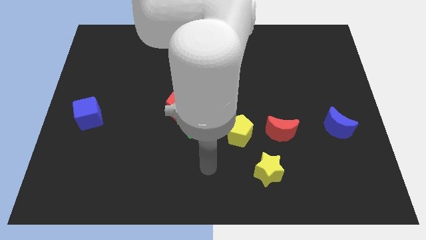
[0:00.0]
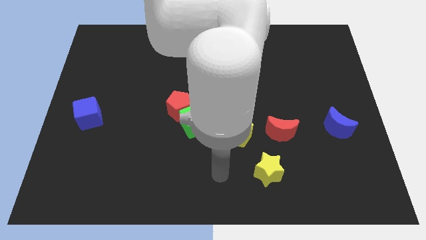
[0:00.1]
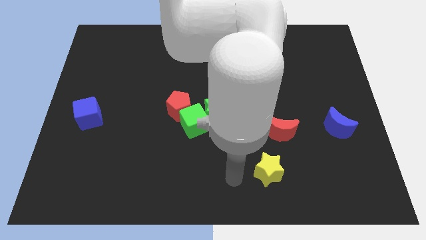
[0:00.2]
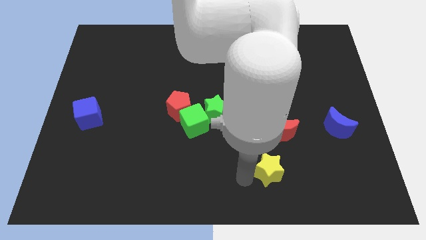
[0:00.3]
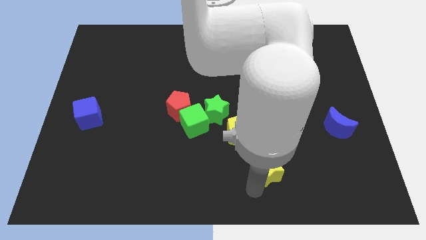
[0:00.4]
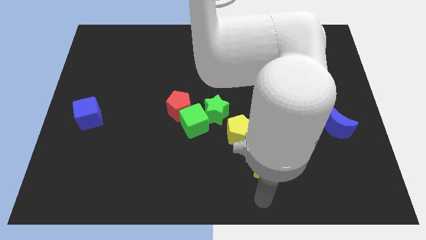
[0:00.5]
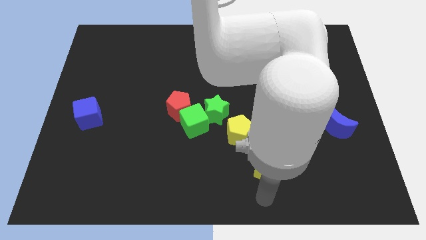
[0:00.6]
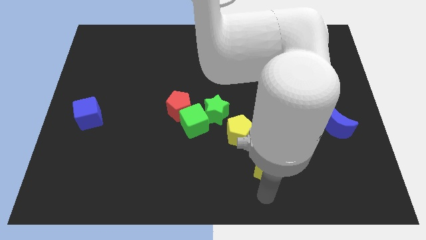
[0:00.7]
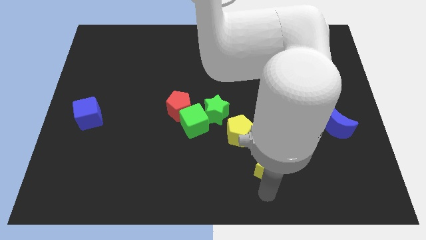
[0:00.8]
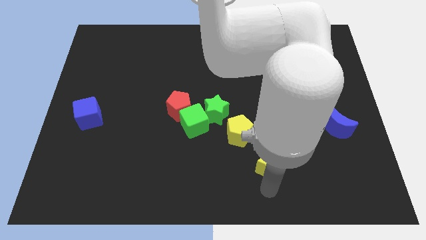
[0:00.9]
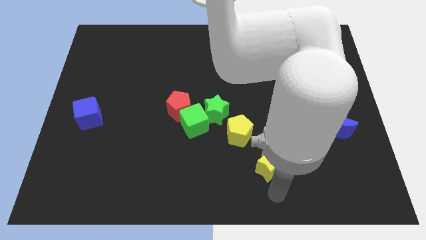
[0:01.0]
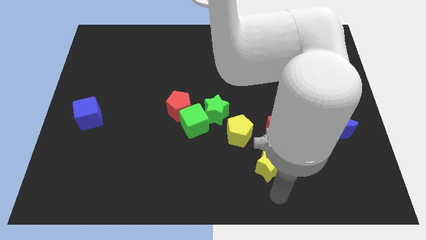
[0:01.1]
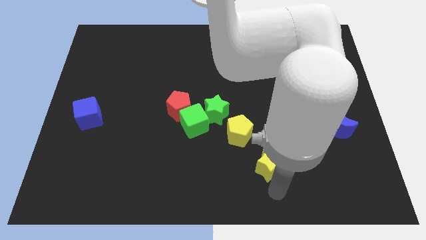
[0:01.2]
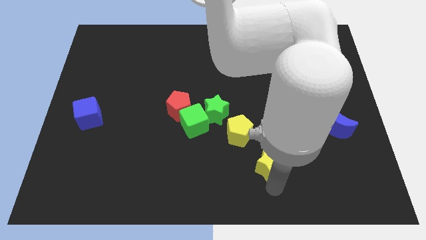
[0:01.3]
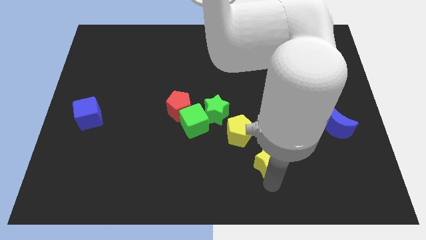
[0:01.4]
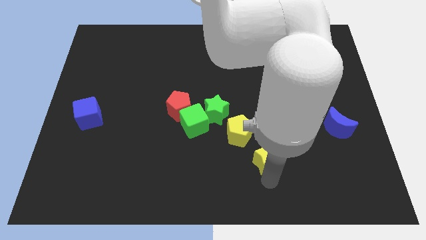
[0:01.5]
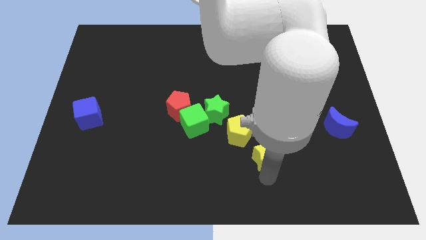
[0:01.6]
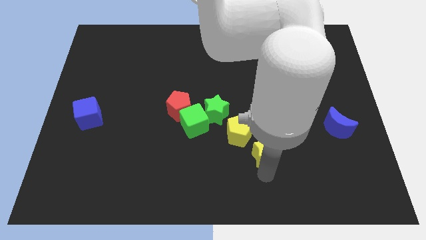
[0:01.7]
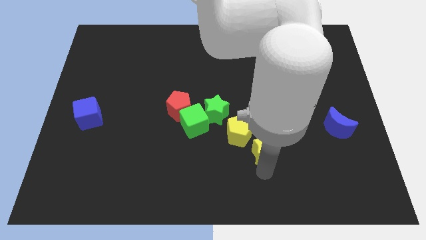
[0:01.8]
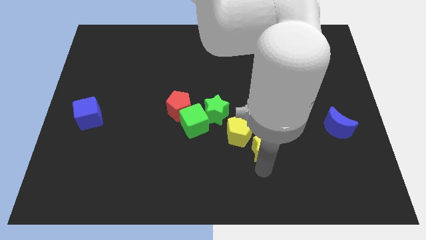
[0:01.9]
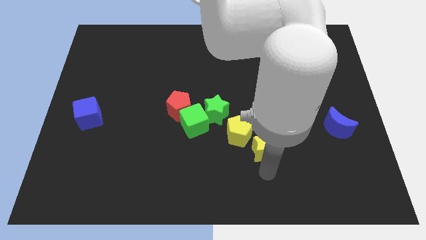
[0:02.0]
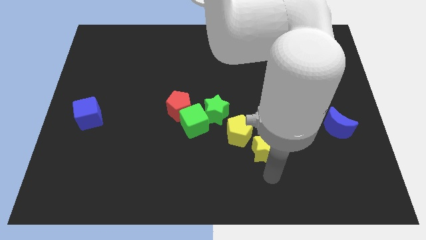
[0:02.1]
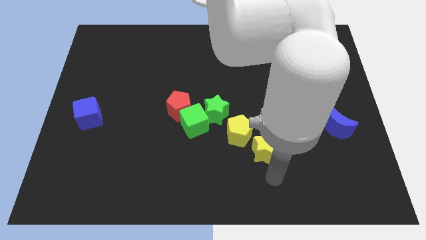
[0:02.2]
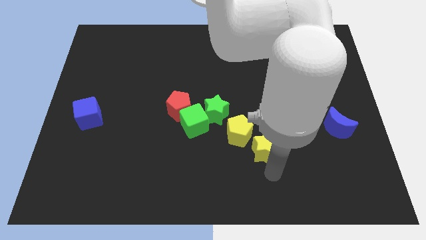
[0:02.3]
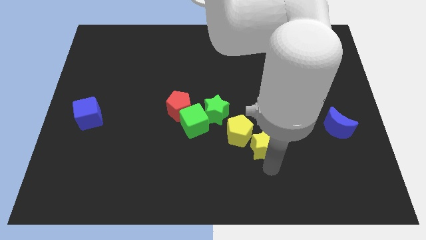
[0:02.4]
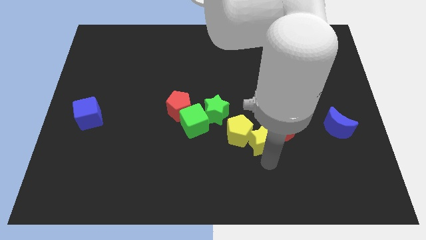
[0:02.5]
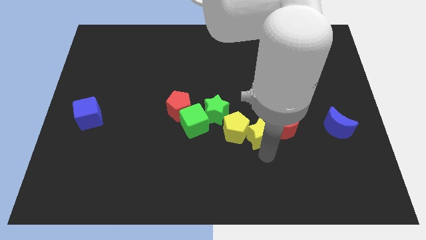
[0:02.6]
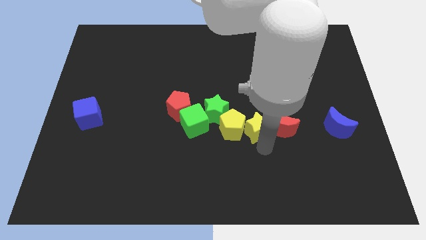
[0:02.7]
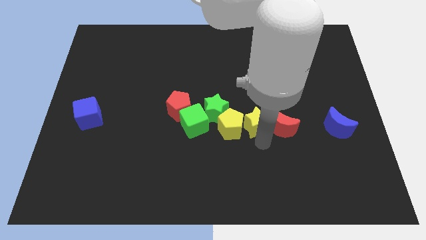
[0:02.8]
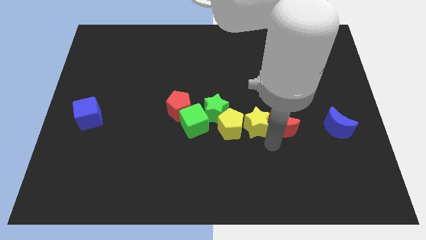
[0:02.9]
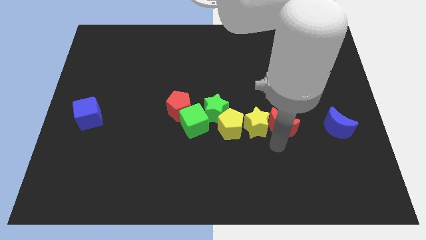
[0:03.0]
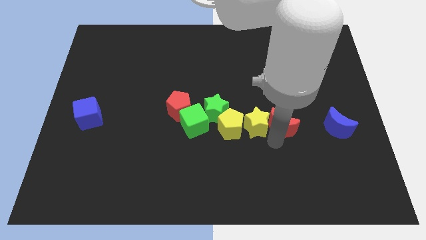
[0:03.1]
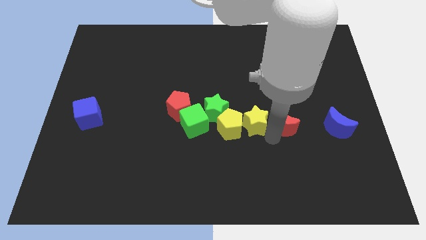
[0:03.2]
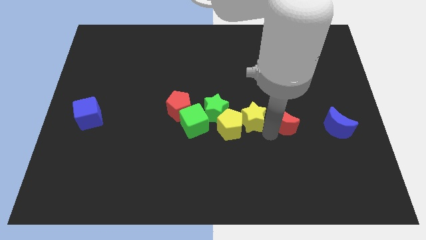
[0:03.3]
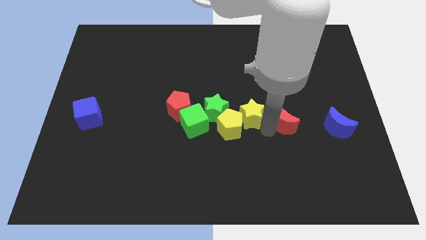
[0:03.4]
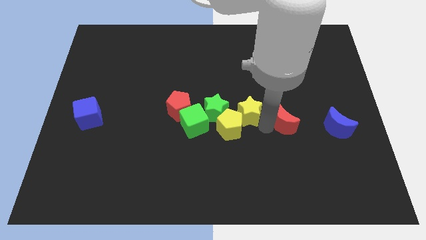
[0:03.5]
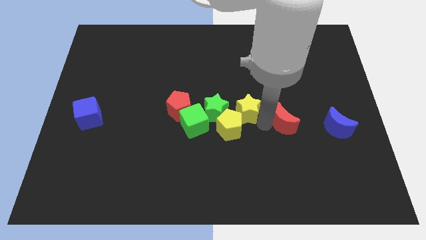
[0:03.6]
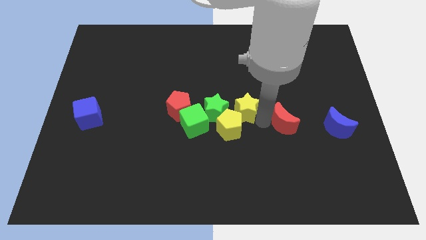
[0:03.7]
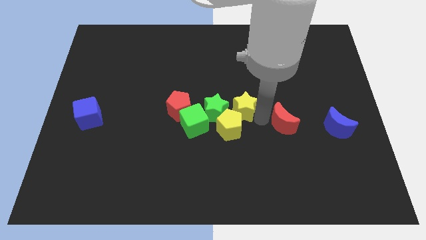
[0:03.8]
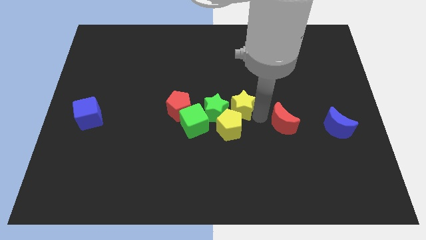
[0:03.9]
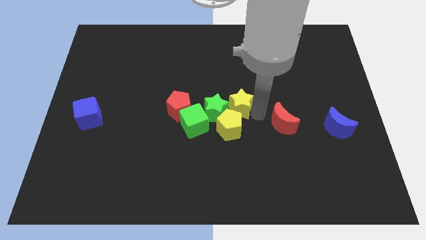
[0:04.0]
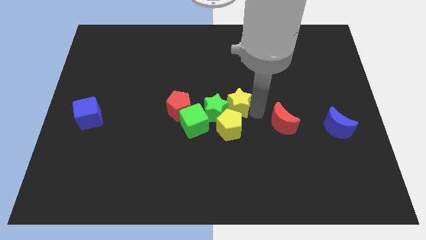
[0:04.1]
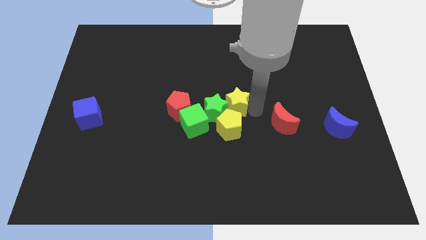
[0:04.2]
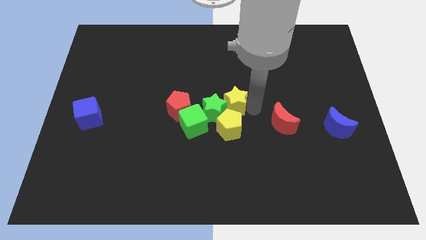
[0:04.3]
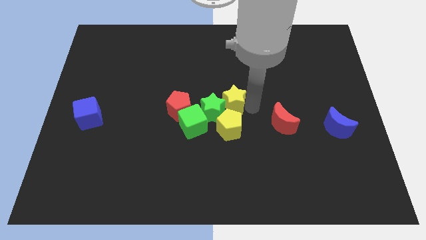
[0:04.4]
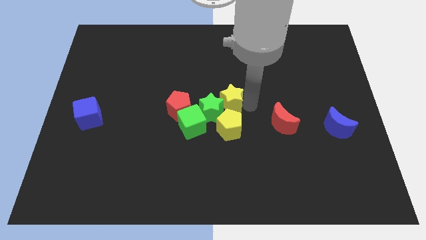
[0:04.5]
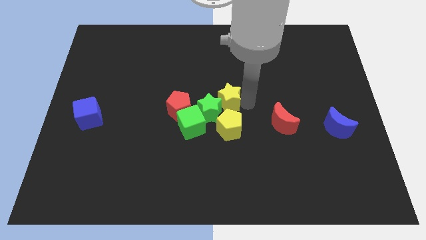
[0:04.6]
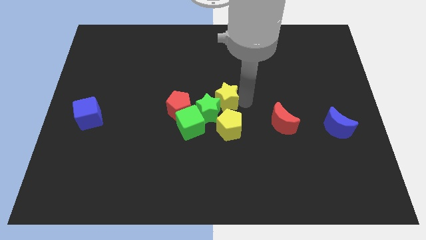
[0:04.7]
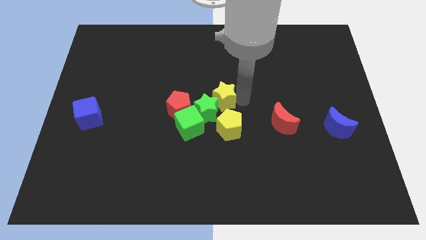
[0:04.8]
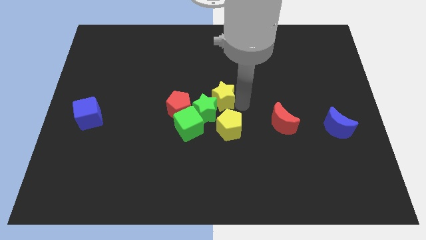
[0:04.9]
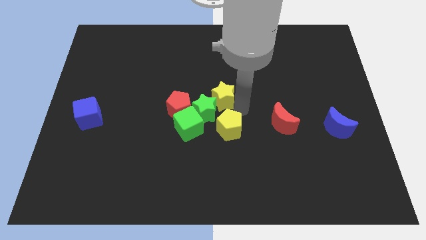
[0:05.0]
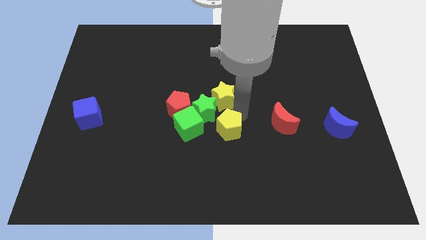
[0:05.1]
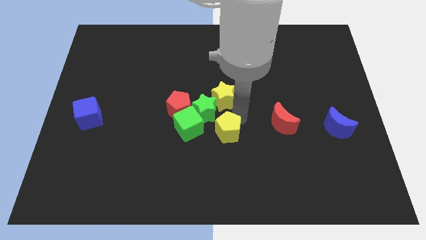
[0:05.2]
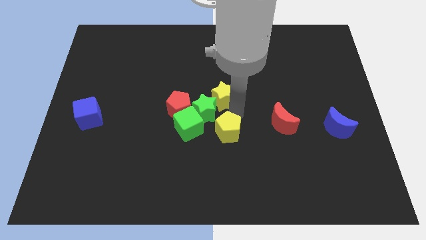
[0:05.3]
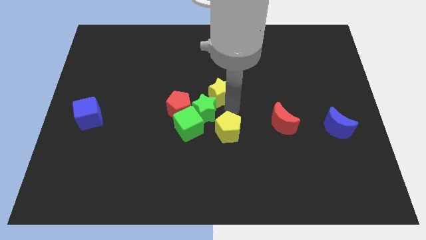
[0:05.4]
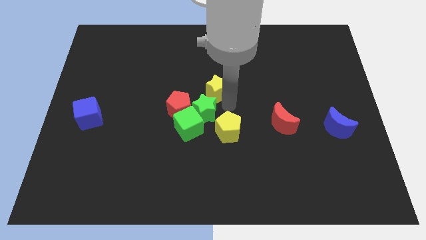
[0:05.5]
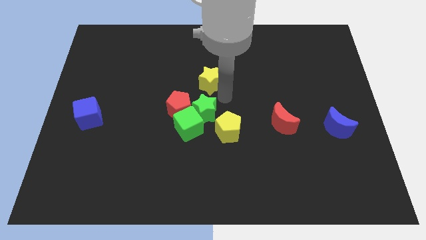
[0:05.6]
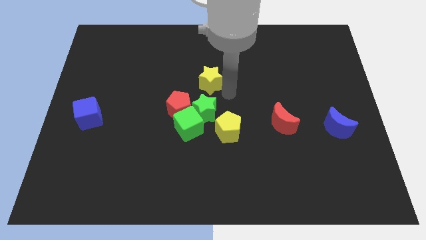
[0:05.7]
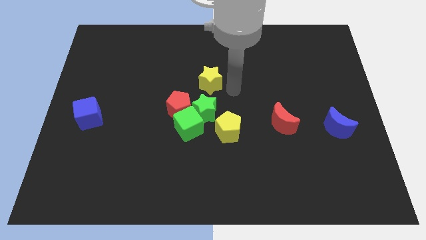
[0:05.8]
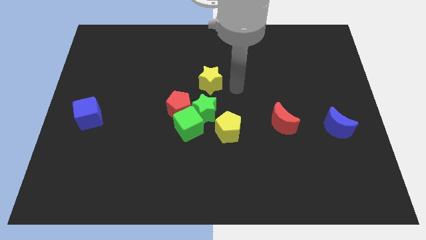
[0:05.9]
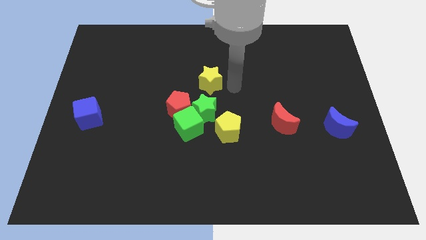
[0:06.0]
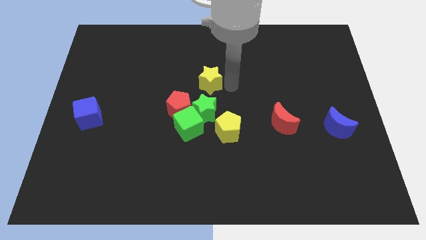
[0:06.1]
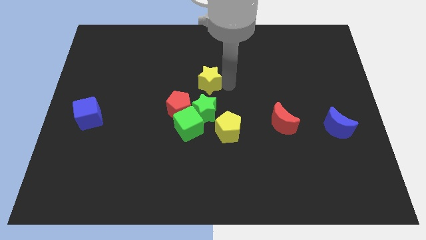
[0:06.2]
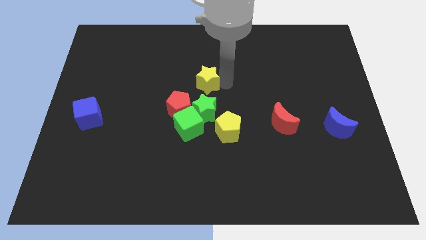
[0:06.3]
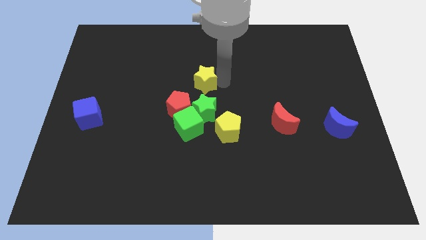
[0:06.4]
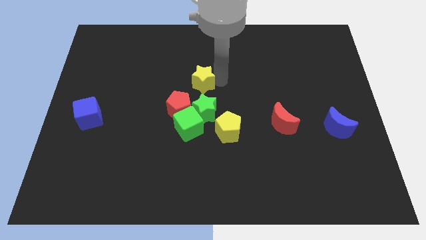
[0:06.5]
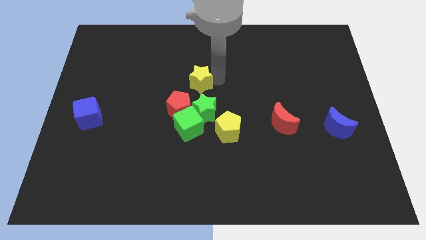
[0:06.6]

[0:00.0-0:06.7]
slide the yellow star above the red pentagon

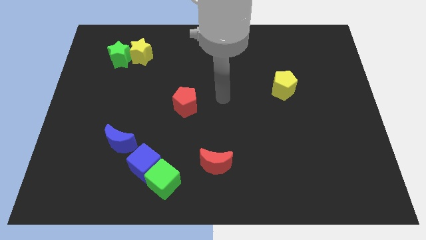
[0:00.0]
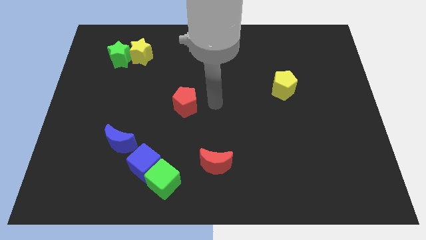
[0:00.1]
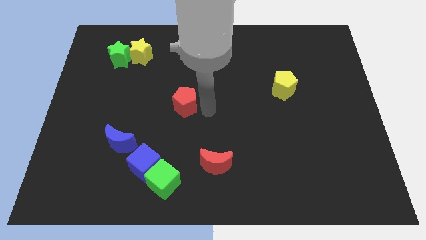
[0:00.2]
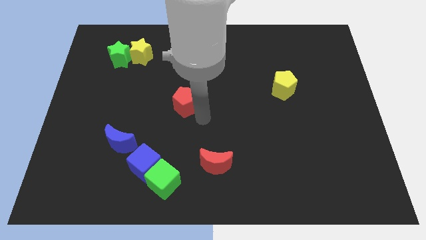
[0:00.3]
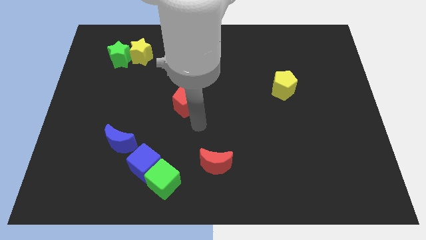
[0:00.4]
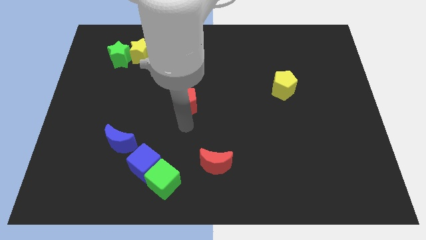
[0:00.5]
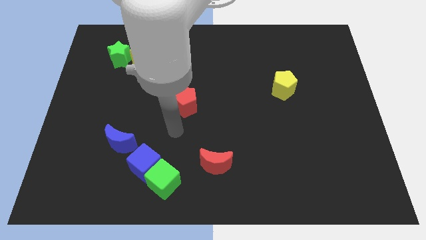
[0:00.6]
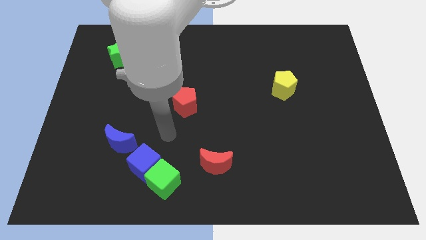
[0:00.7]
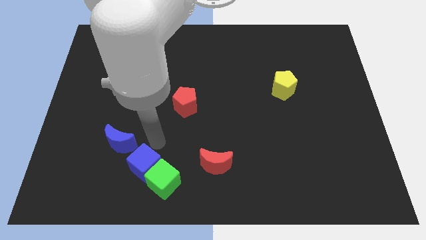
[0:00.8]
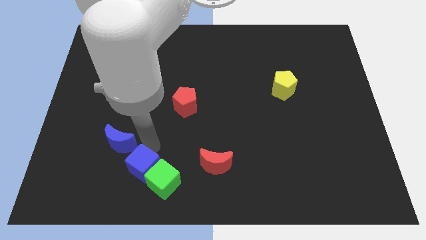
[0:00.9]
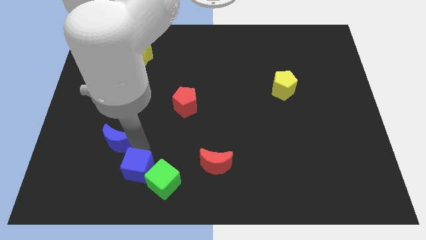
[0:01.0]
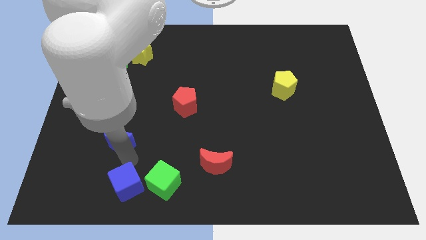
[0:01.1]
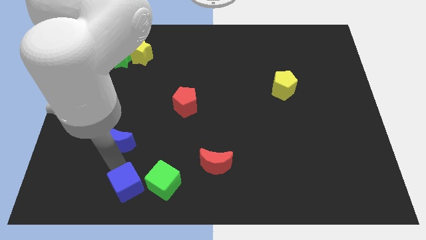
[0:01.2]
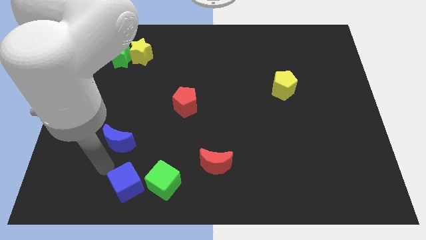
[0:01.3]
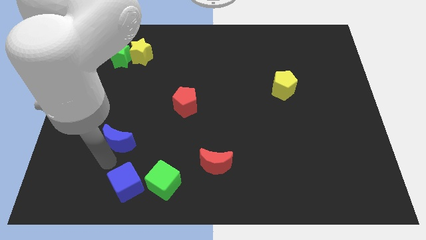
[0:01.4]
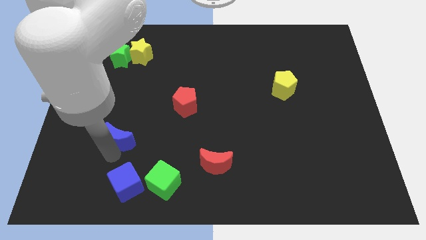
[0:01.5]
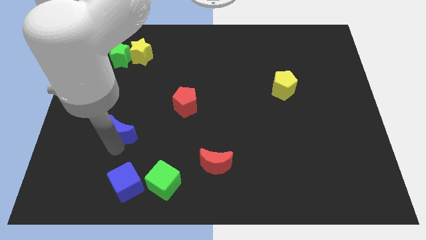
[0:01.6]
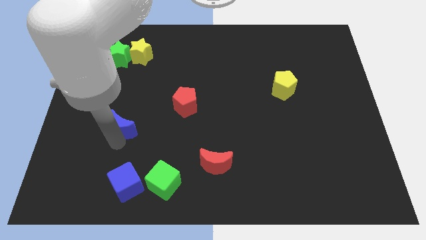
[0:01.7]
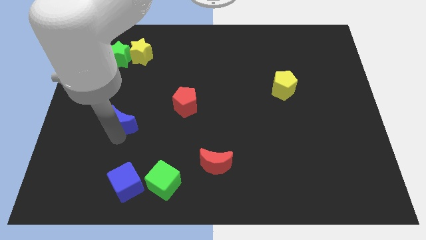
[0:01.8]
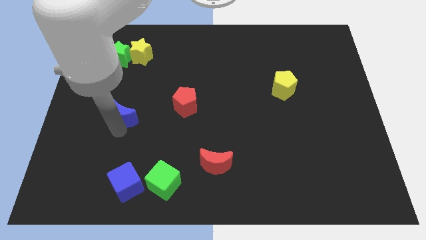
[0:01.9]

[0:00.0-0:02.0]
push the blue moon left of the red pentagon
